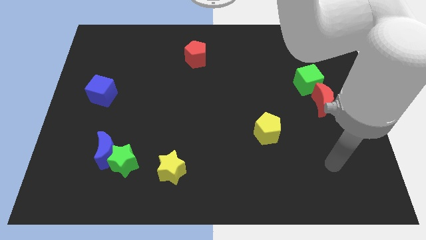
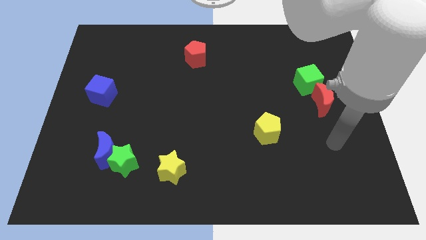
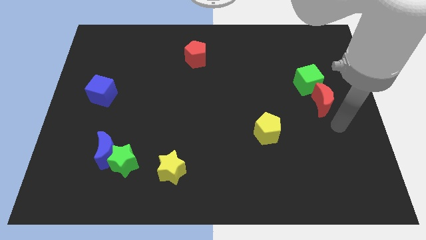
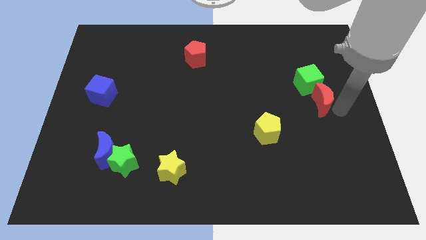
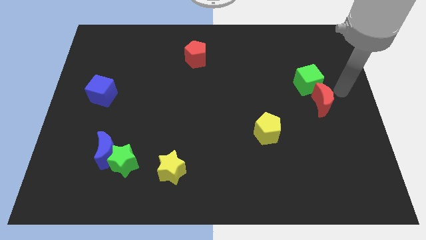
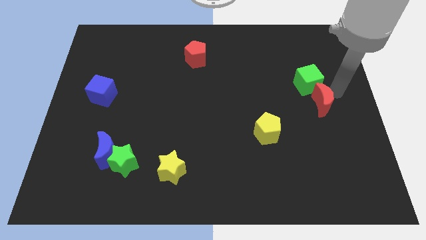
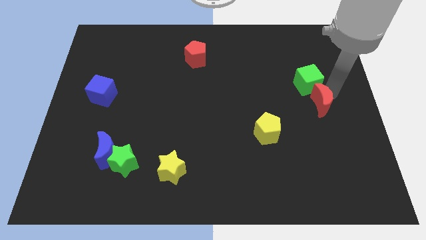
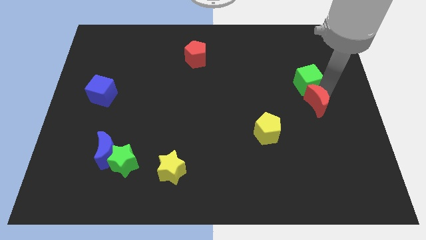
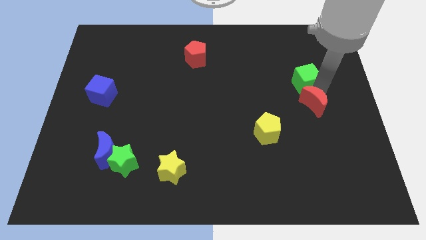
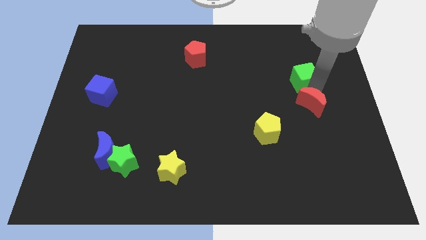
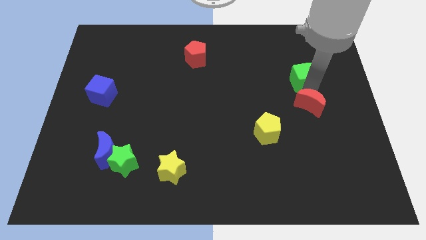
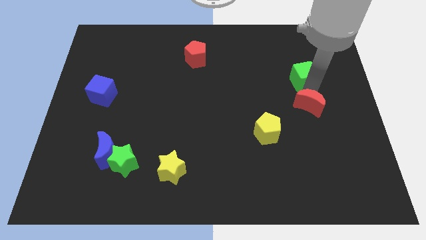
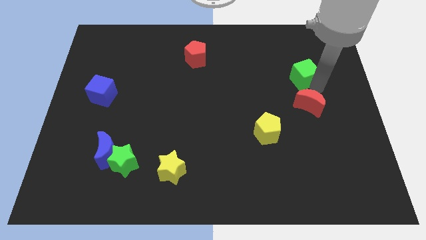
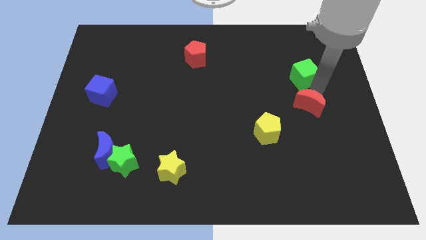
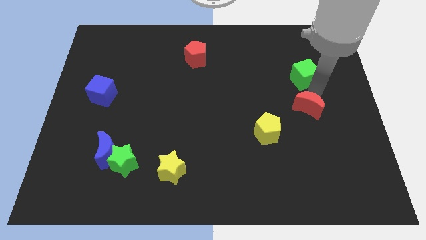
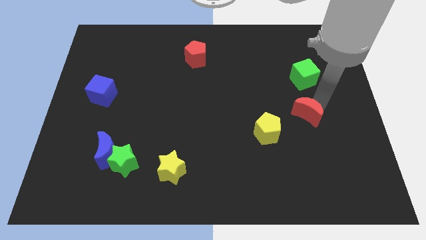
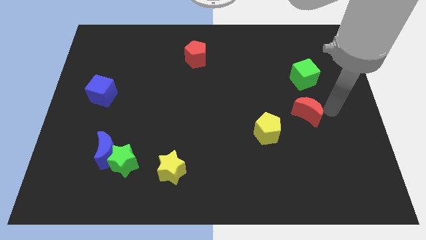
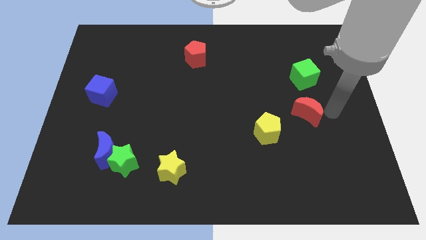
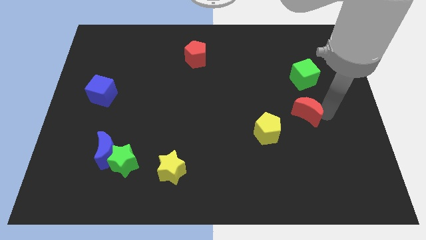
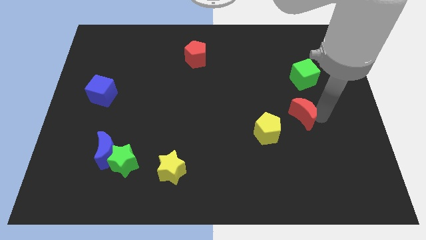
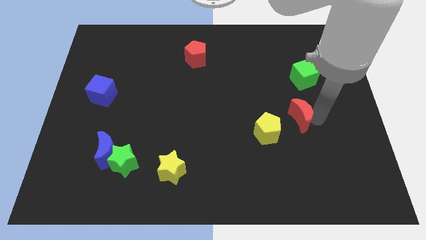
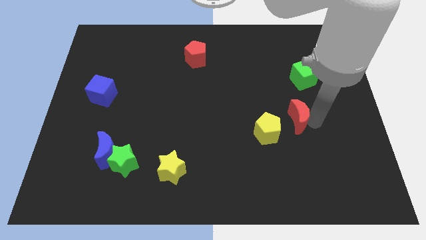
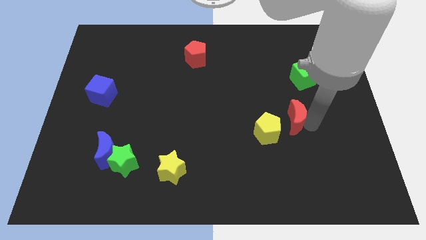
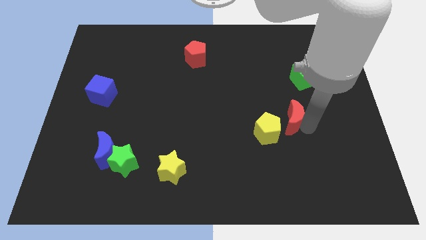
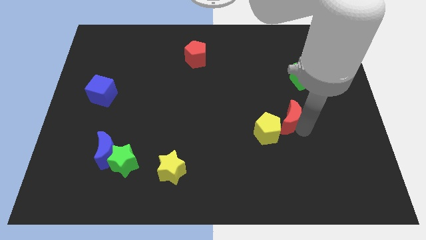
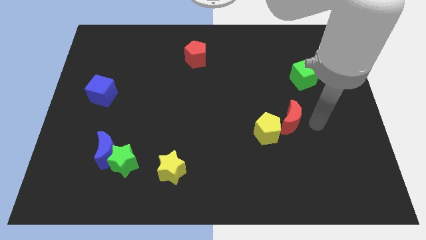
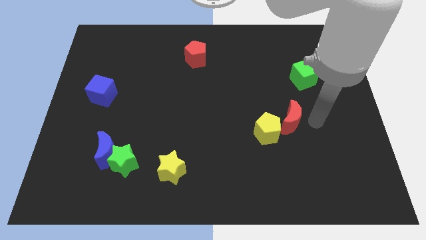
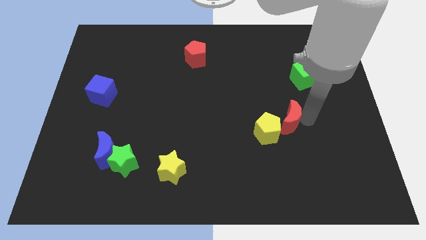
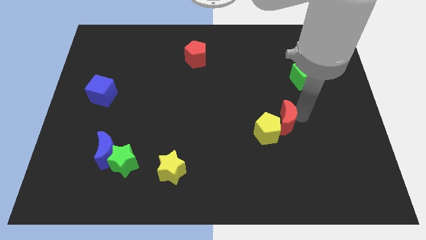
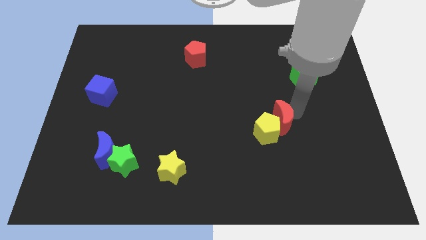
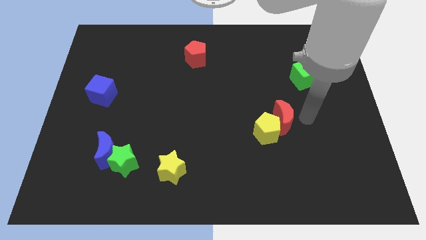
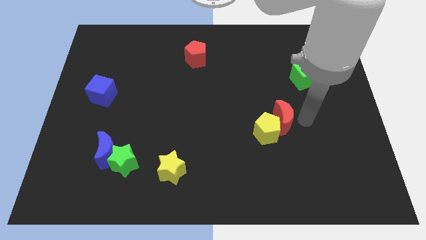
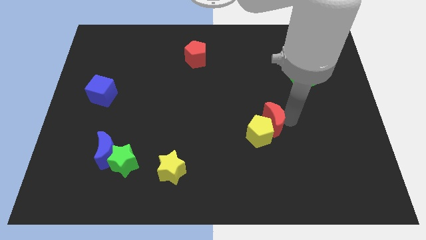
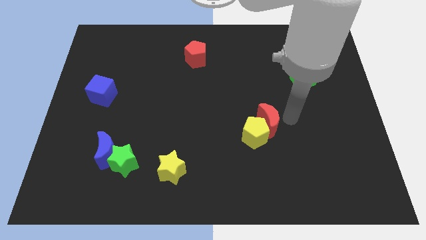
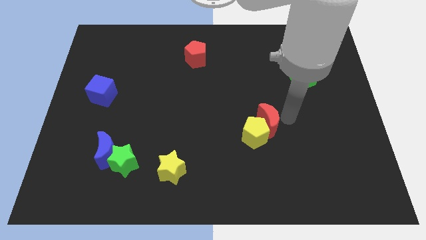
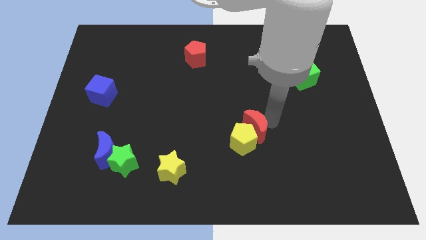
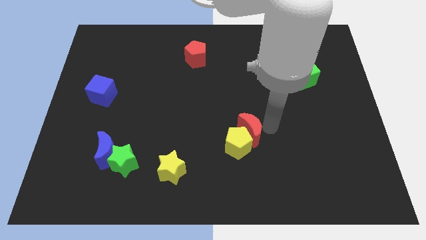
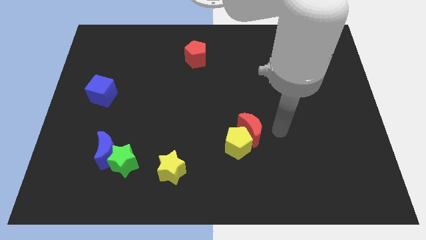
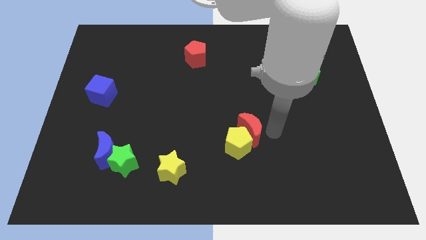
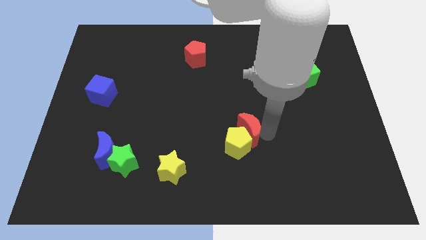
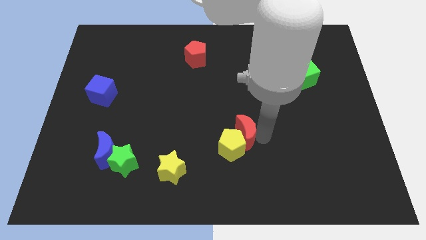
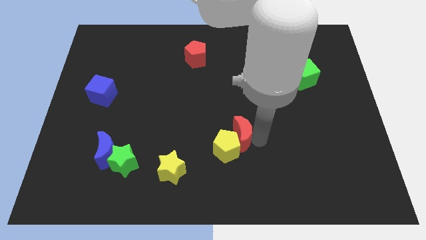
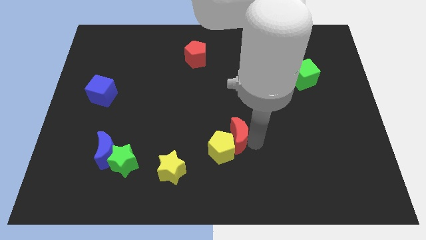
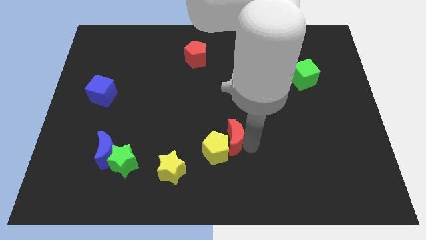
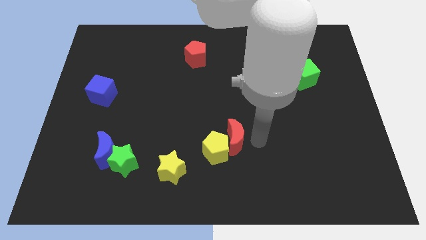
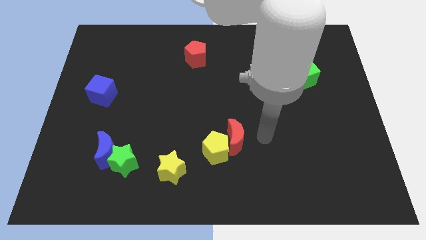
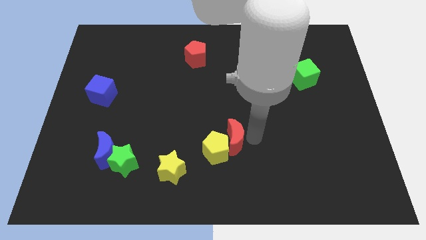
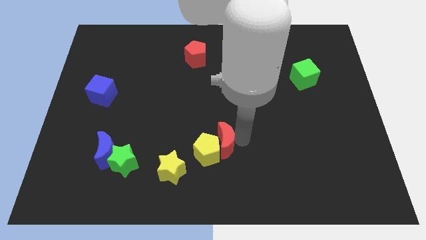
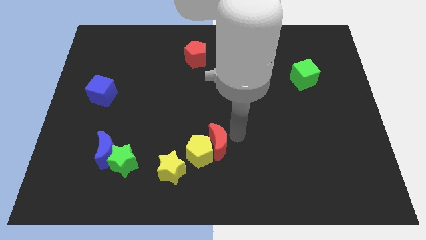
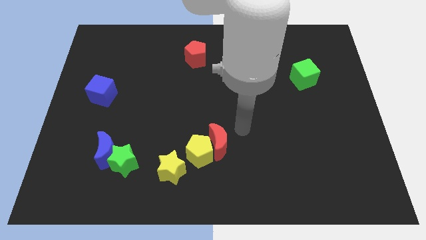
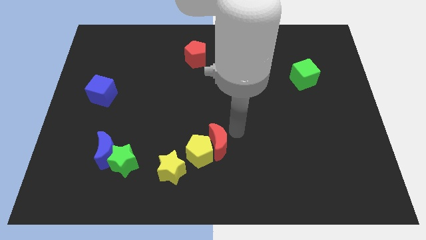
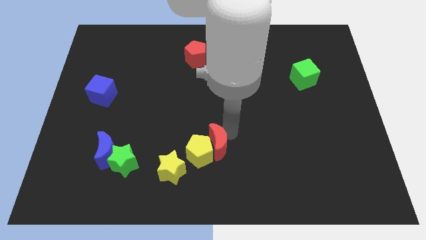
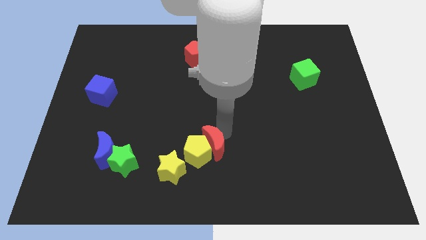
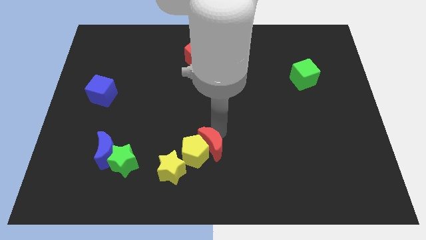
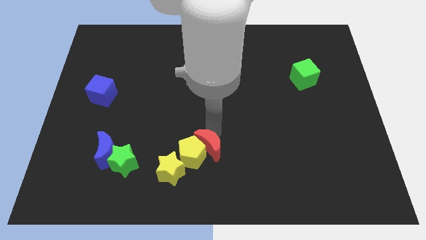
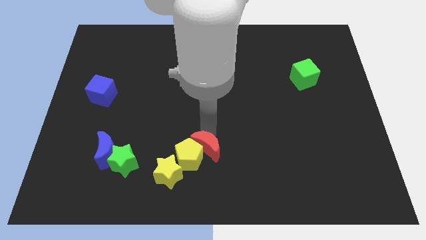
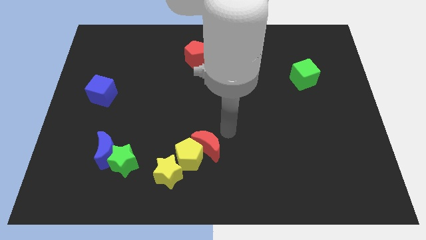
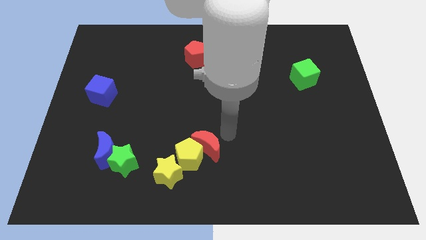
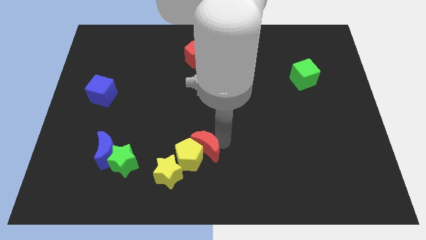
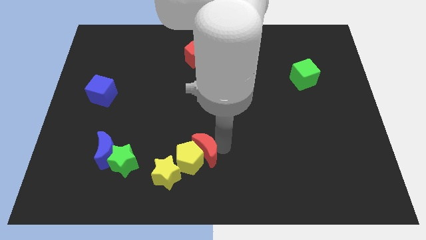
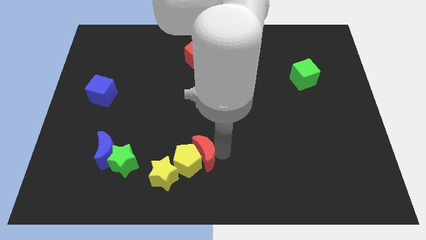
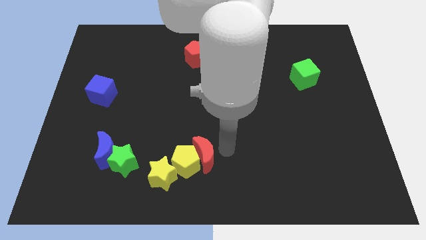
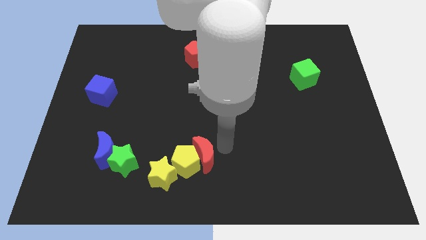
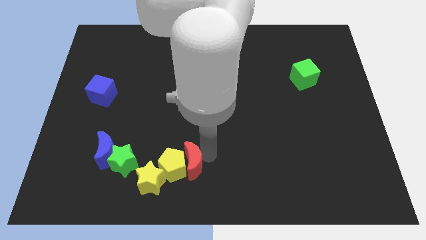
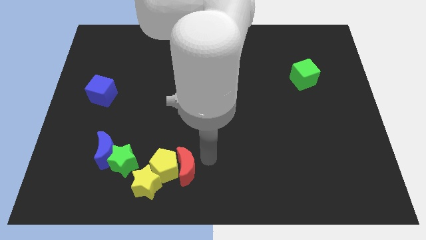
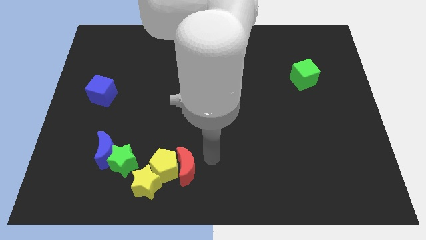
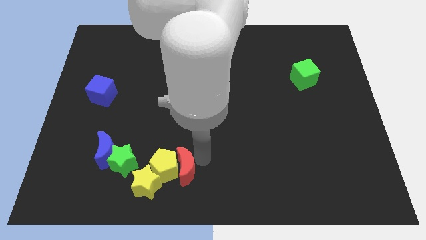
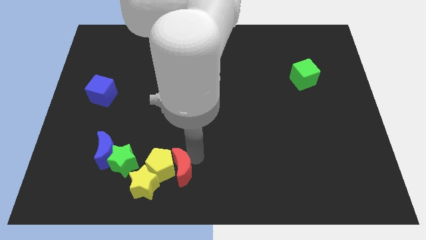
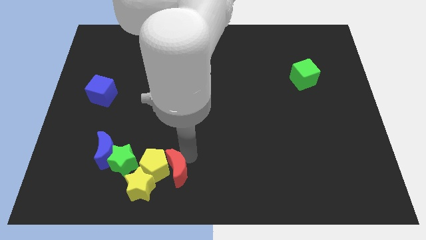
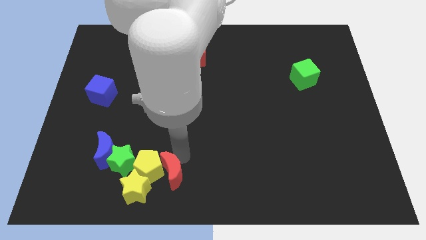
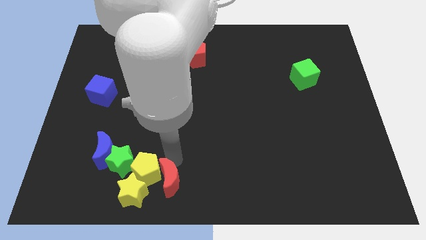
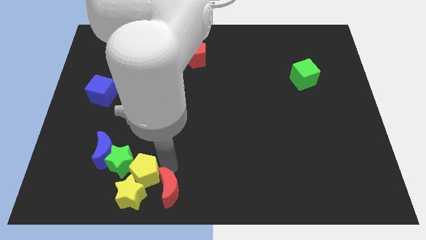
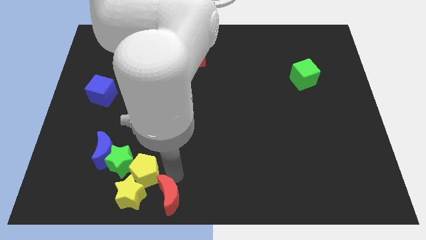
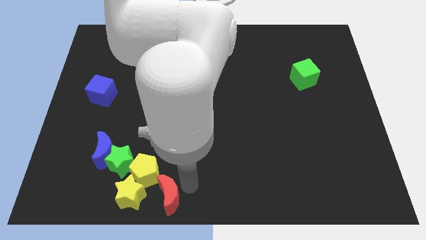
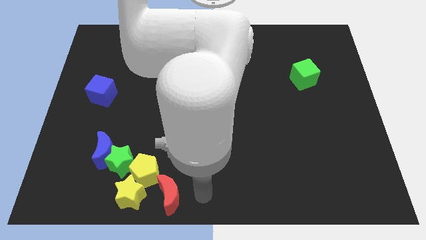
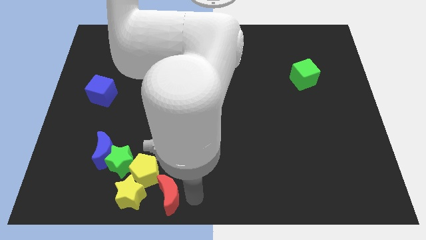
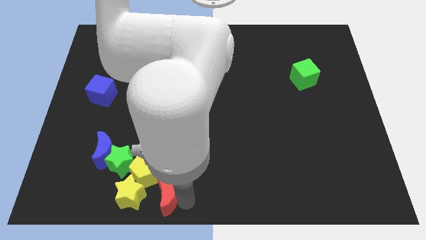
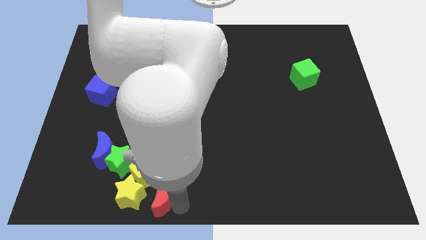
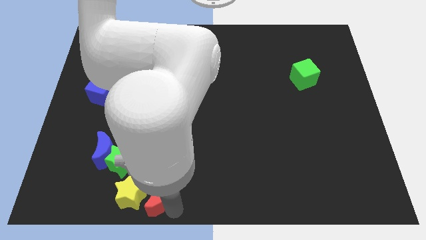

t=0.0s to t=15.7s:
push the red moon towards the yellow star
